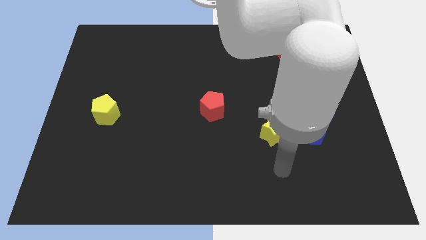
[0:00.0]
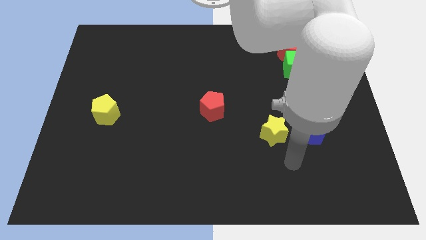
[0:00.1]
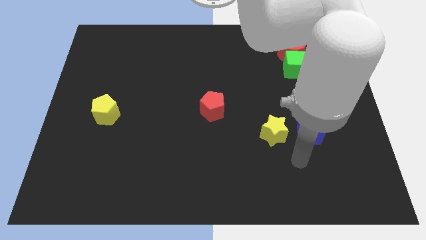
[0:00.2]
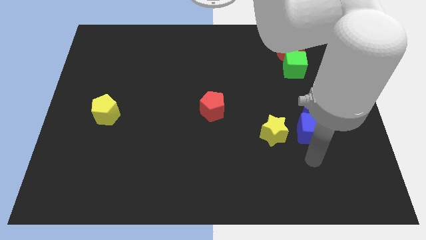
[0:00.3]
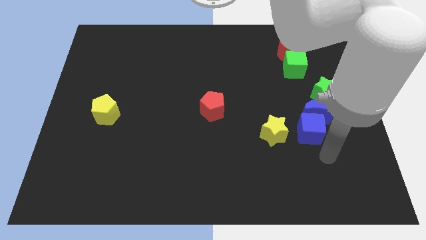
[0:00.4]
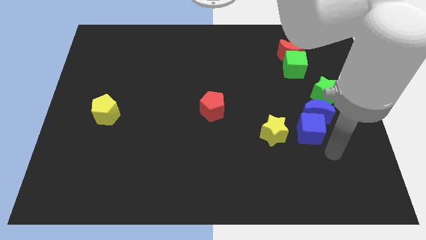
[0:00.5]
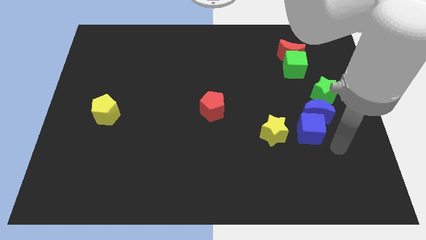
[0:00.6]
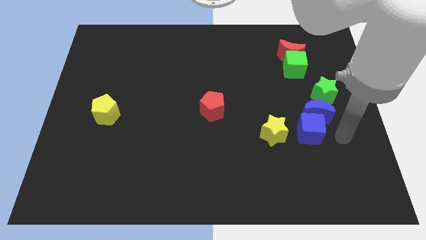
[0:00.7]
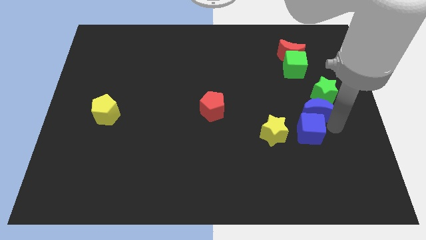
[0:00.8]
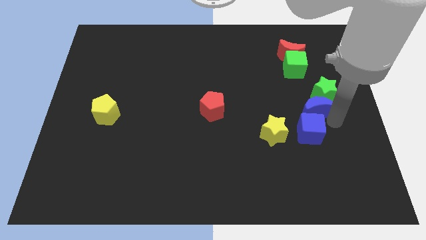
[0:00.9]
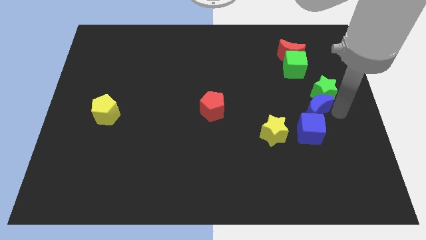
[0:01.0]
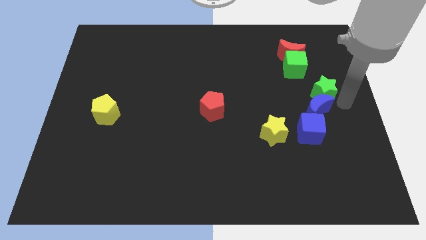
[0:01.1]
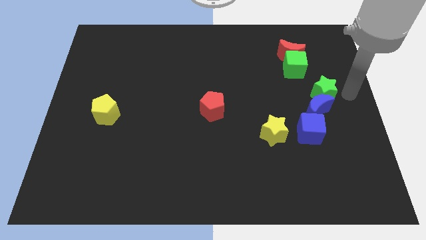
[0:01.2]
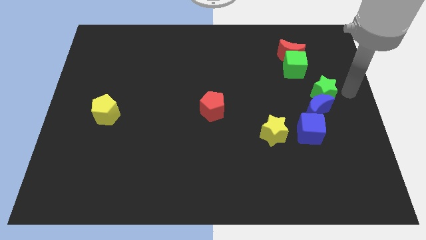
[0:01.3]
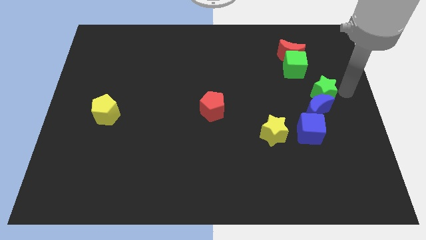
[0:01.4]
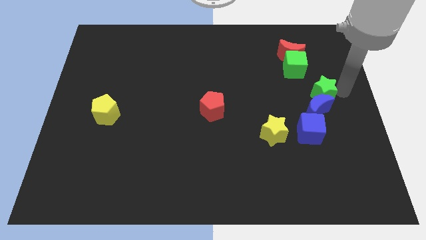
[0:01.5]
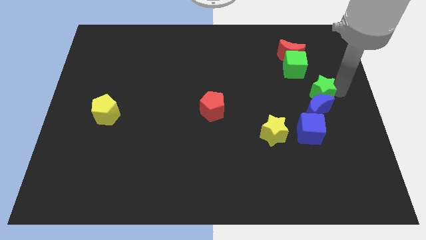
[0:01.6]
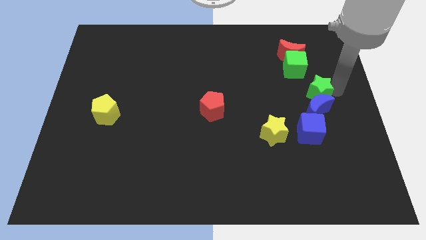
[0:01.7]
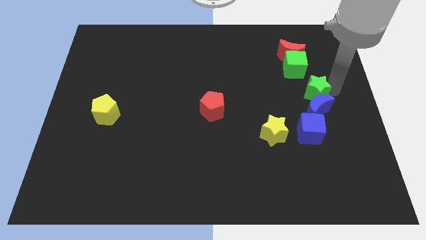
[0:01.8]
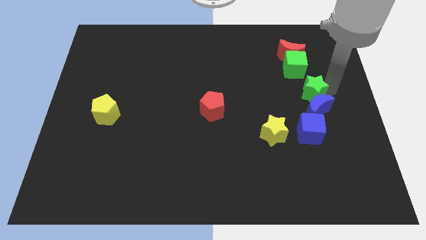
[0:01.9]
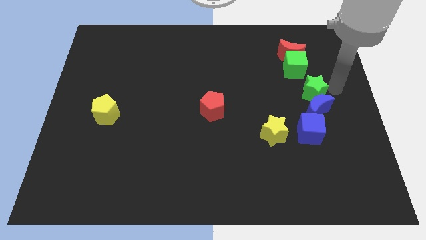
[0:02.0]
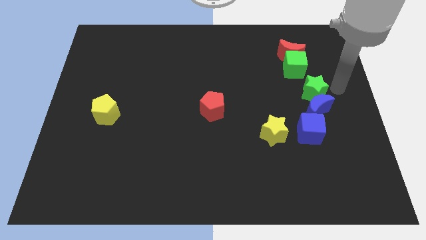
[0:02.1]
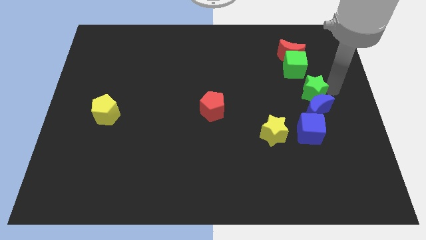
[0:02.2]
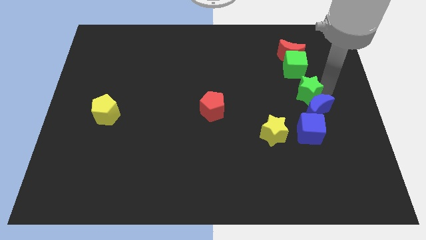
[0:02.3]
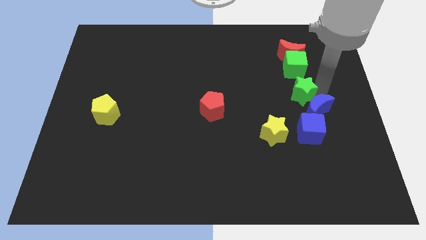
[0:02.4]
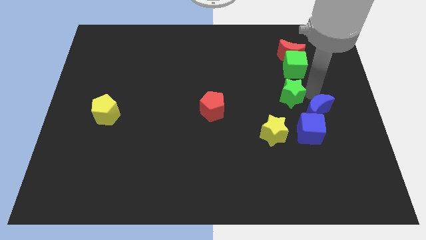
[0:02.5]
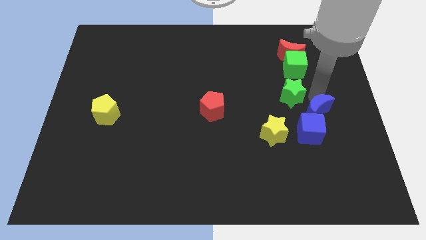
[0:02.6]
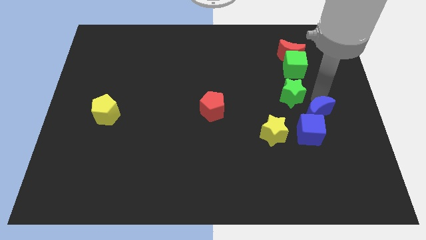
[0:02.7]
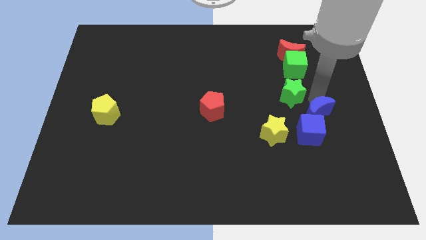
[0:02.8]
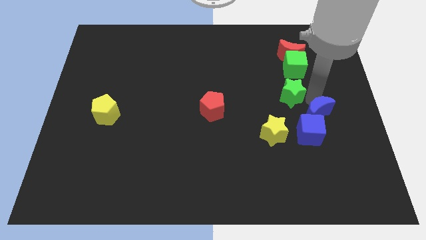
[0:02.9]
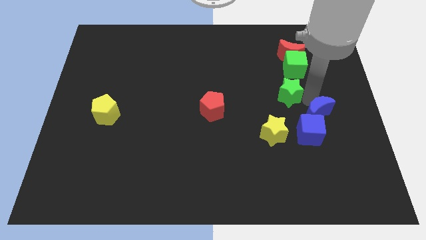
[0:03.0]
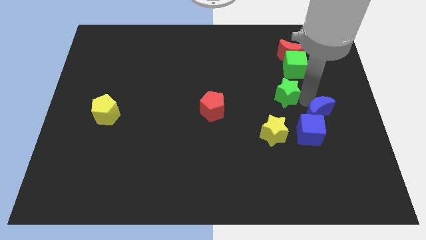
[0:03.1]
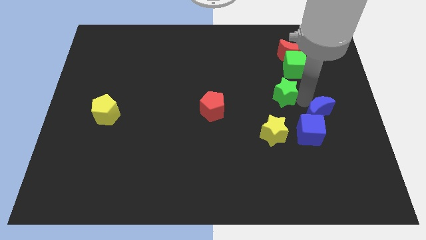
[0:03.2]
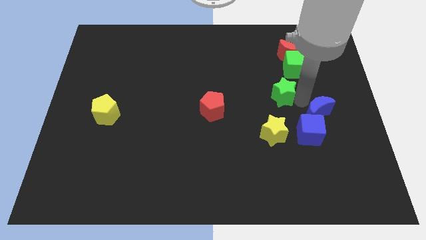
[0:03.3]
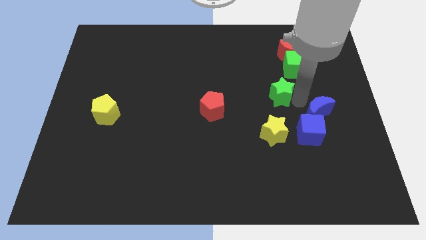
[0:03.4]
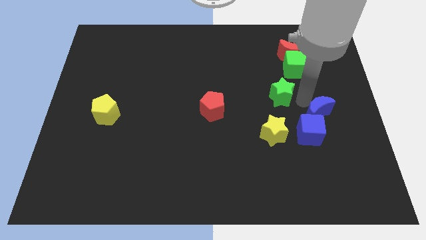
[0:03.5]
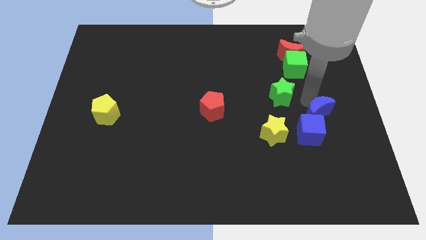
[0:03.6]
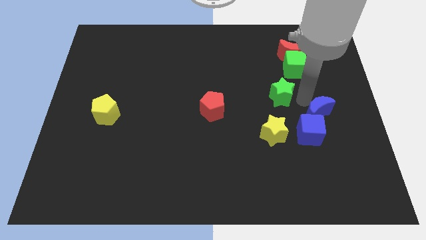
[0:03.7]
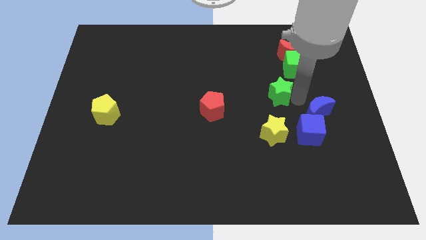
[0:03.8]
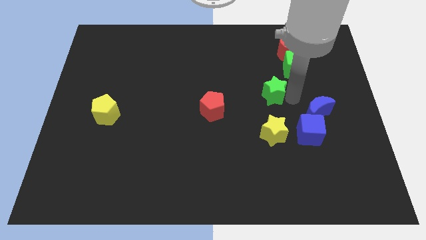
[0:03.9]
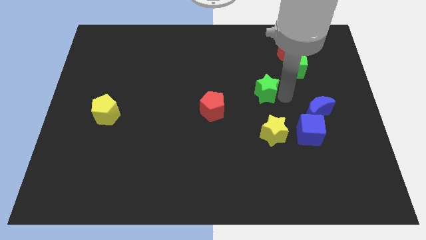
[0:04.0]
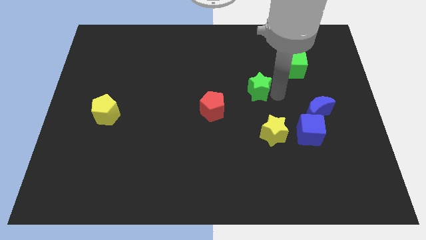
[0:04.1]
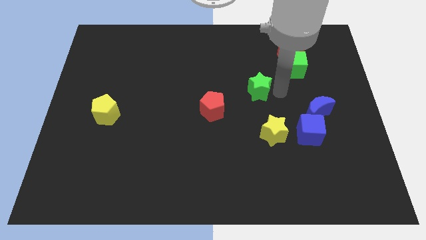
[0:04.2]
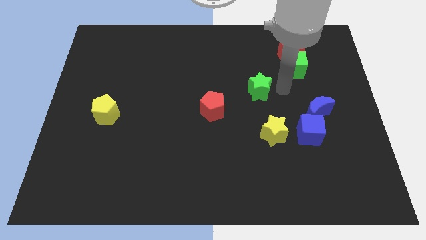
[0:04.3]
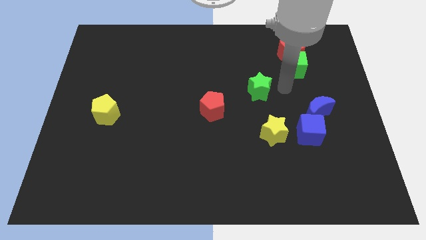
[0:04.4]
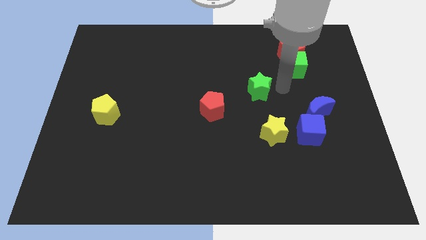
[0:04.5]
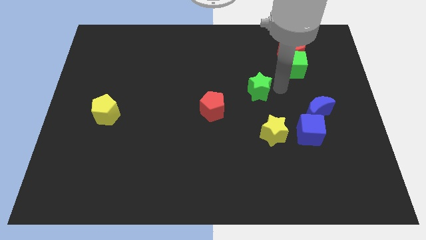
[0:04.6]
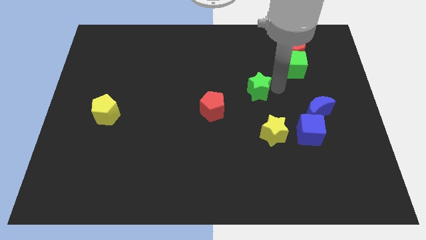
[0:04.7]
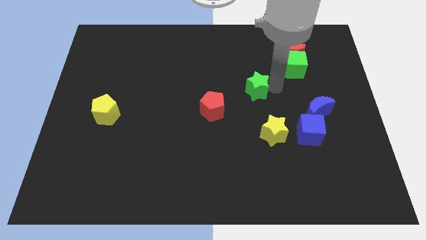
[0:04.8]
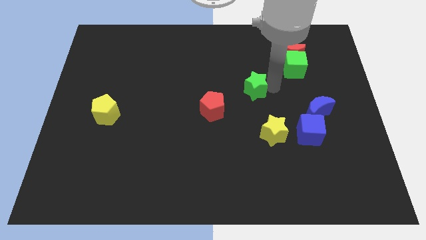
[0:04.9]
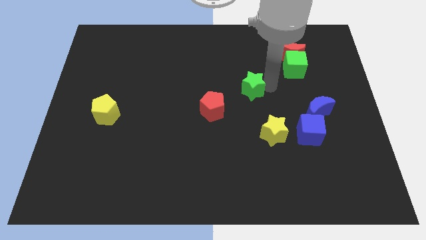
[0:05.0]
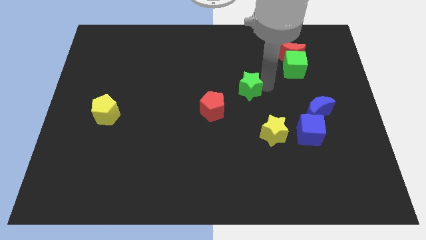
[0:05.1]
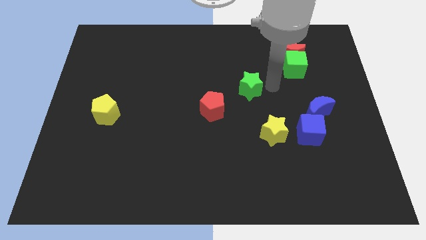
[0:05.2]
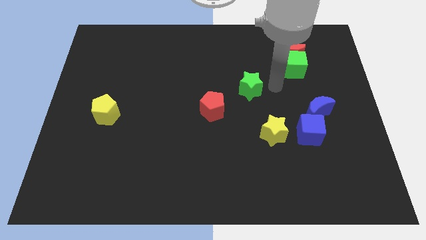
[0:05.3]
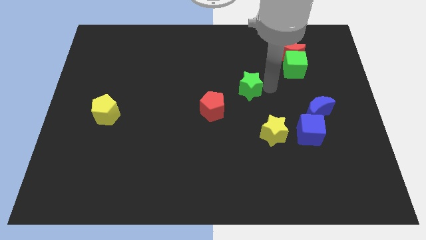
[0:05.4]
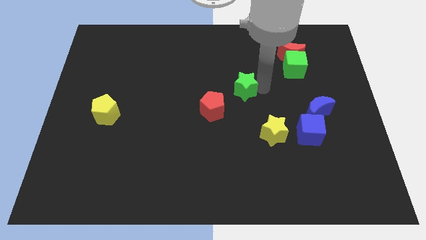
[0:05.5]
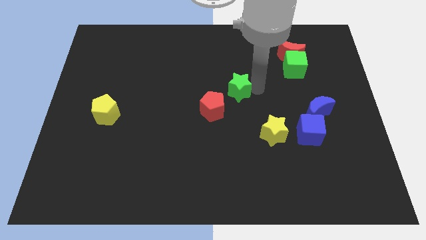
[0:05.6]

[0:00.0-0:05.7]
slide the green star to the left

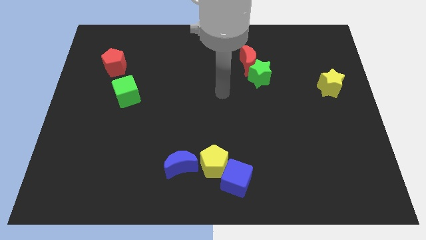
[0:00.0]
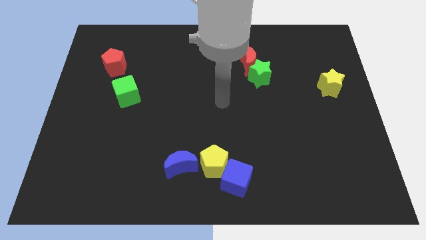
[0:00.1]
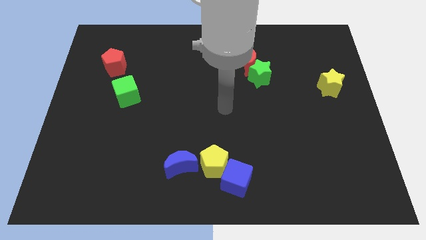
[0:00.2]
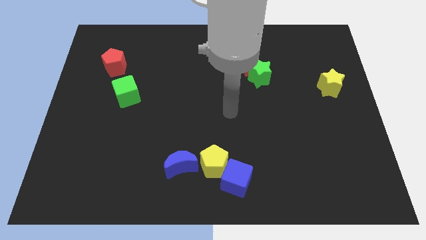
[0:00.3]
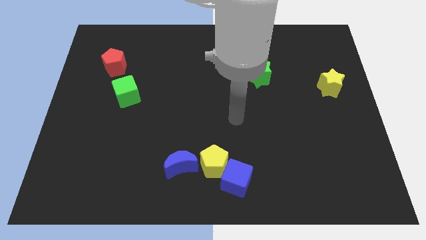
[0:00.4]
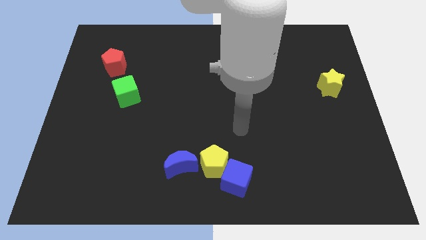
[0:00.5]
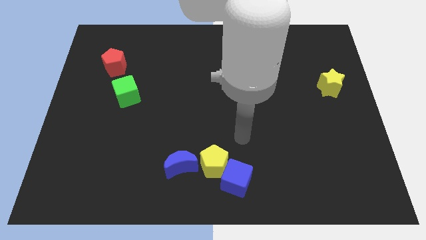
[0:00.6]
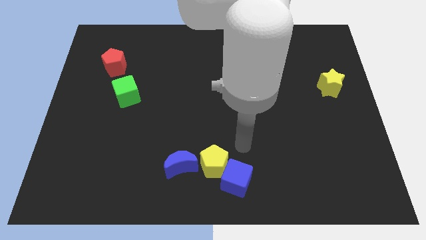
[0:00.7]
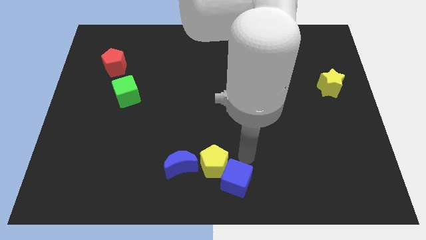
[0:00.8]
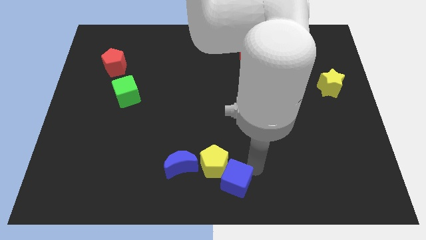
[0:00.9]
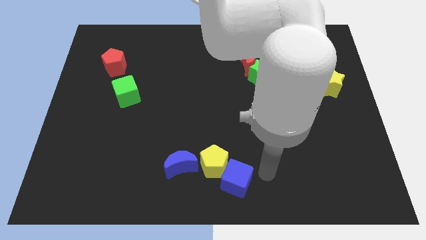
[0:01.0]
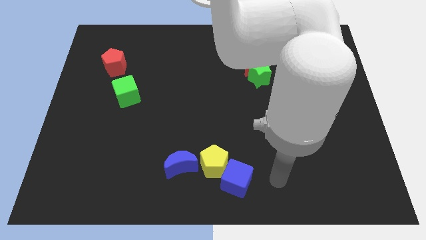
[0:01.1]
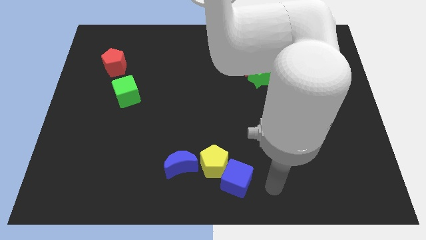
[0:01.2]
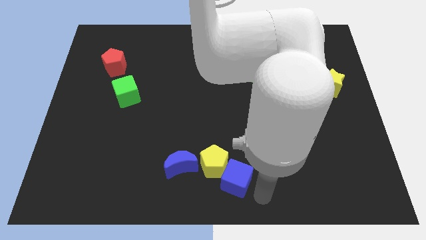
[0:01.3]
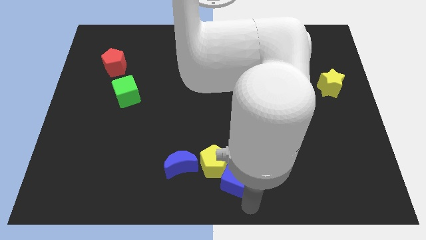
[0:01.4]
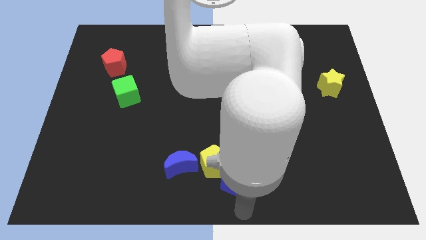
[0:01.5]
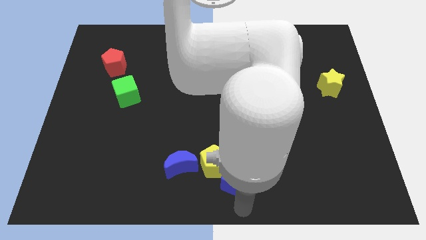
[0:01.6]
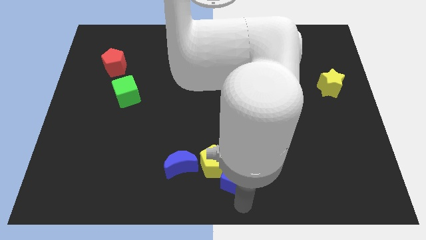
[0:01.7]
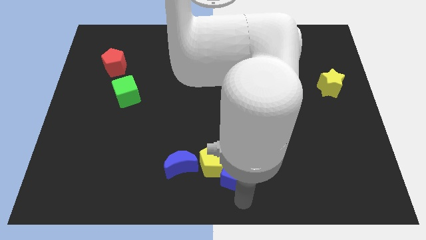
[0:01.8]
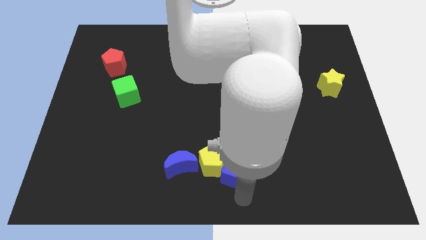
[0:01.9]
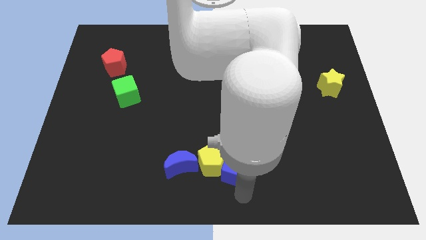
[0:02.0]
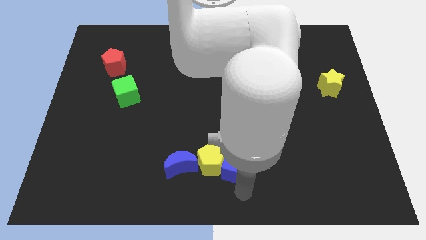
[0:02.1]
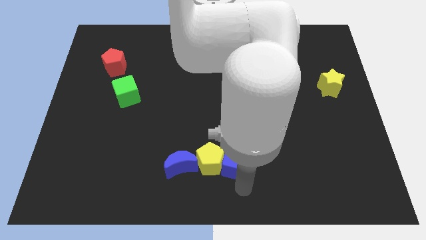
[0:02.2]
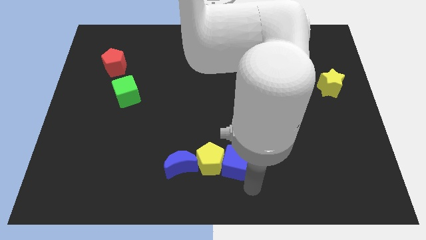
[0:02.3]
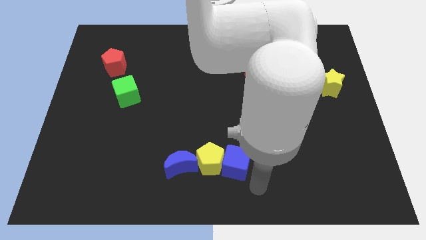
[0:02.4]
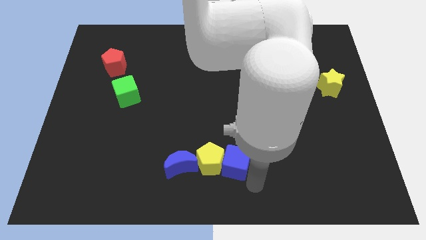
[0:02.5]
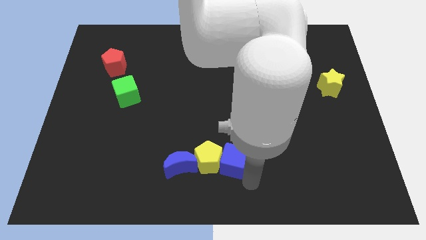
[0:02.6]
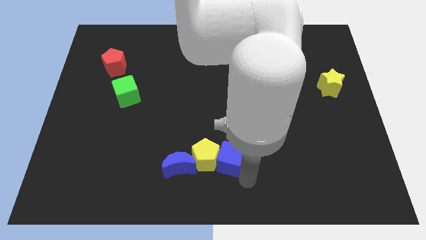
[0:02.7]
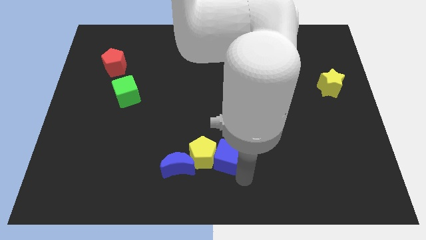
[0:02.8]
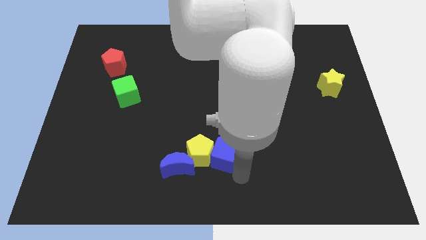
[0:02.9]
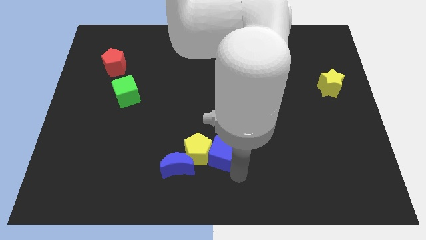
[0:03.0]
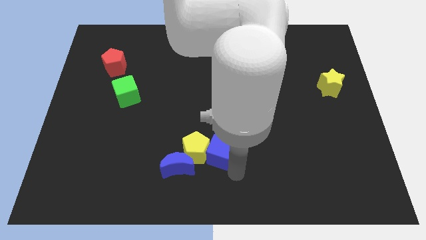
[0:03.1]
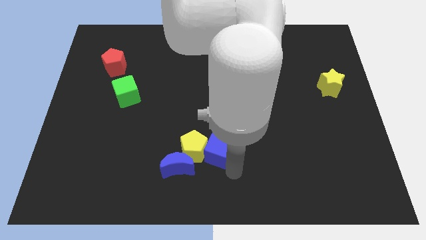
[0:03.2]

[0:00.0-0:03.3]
slide the blue cube upwards and then to the left slightly
